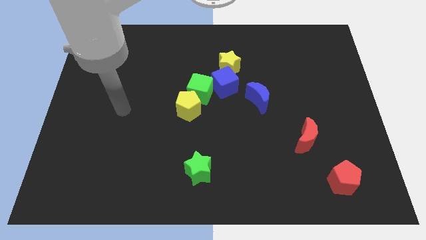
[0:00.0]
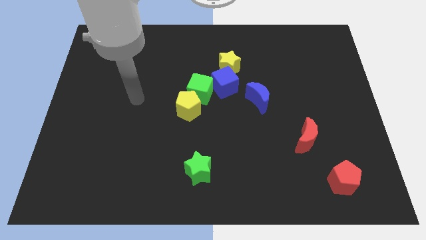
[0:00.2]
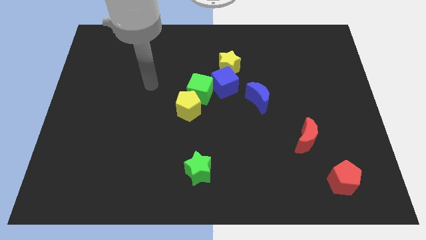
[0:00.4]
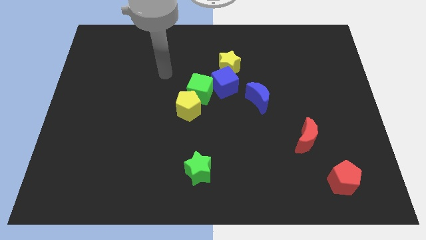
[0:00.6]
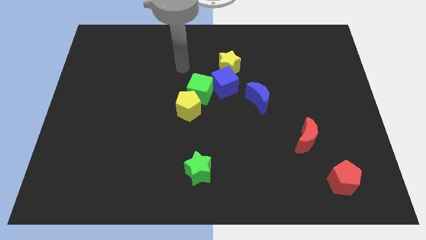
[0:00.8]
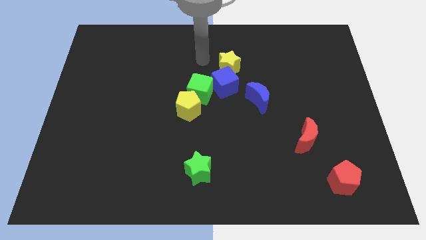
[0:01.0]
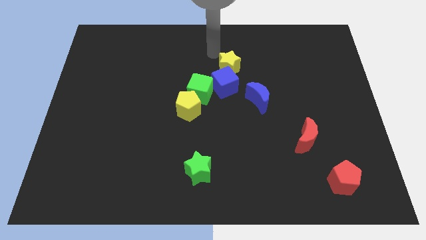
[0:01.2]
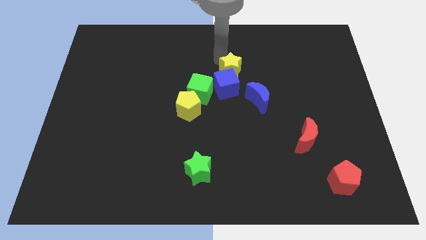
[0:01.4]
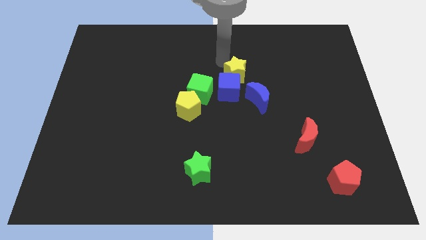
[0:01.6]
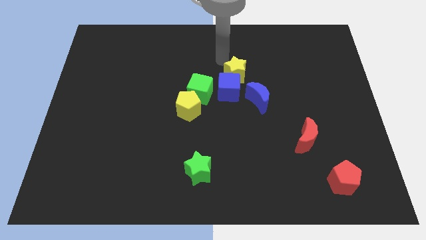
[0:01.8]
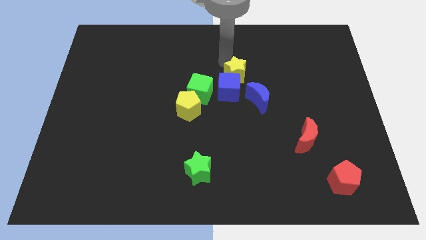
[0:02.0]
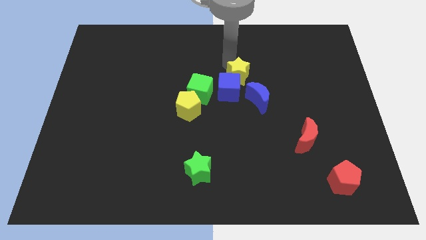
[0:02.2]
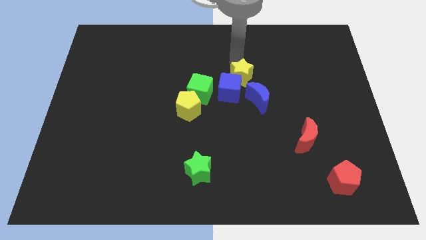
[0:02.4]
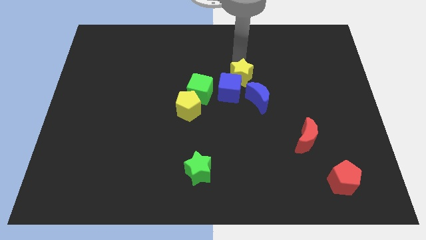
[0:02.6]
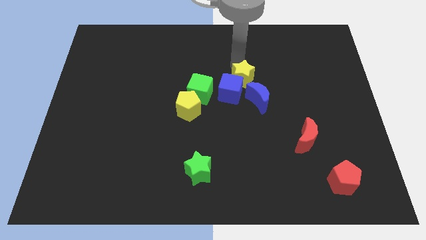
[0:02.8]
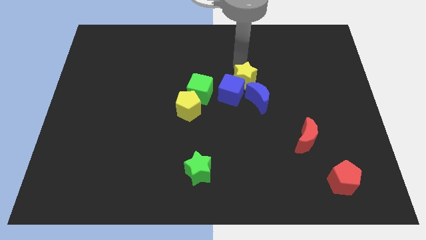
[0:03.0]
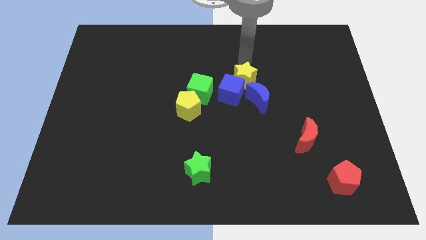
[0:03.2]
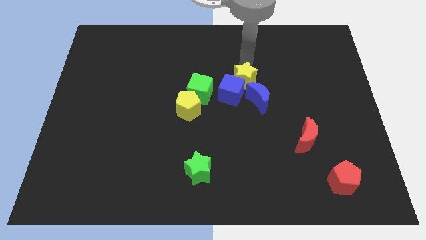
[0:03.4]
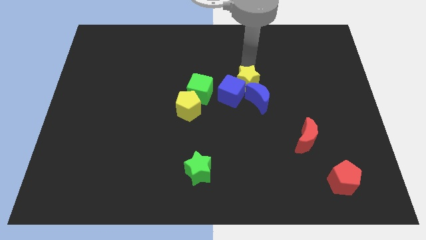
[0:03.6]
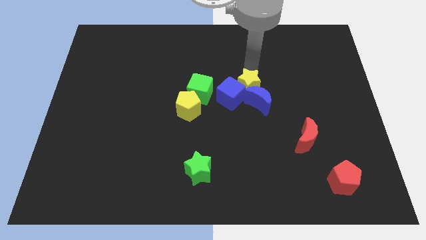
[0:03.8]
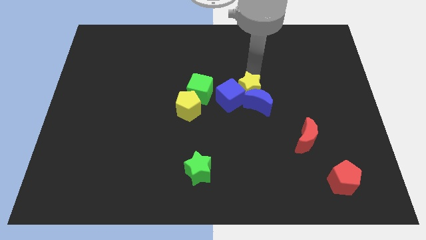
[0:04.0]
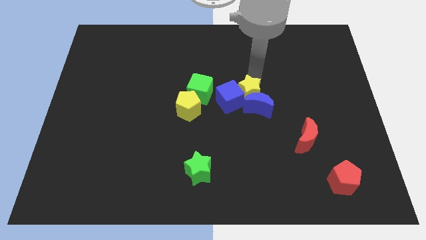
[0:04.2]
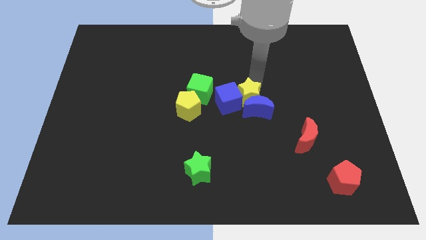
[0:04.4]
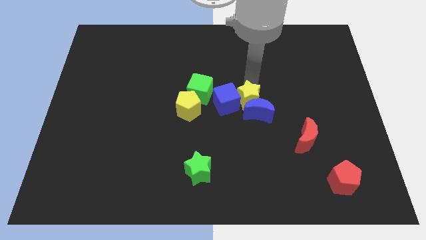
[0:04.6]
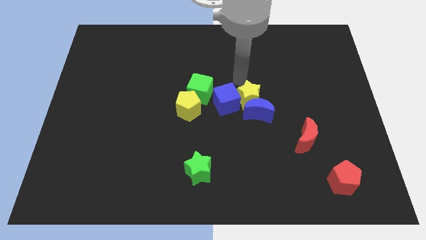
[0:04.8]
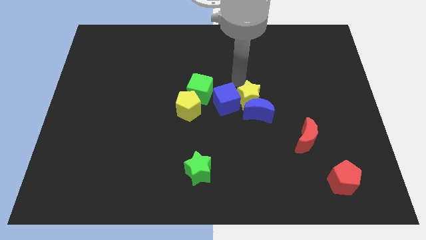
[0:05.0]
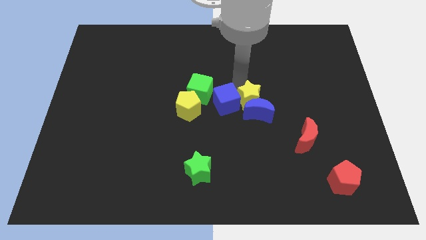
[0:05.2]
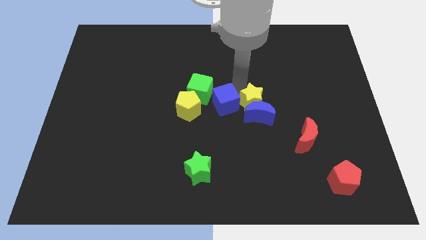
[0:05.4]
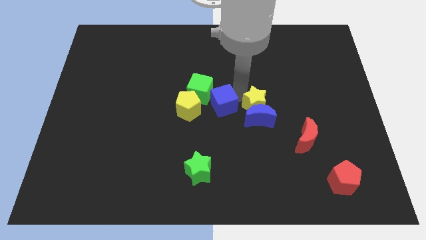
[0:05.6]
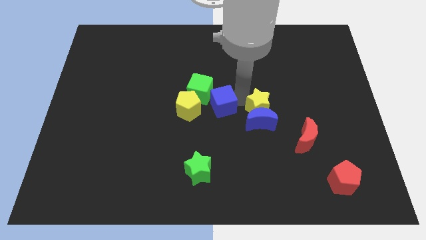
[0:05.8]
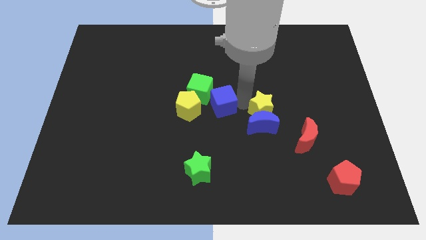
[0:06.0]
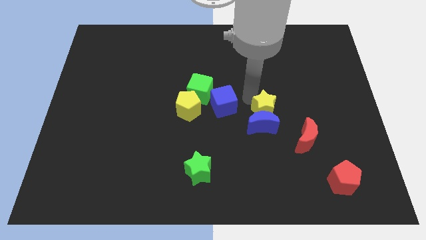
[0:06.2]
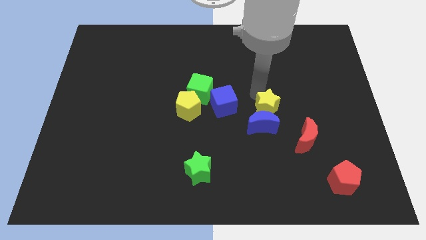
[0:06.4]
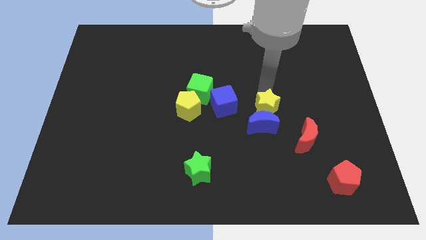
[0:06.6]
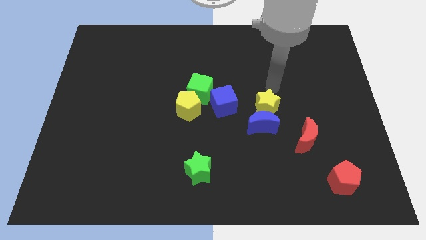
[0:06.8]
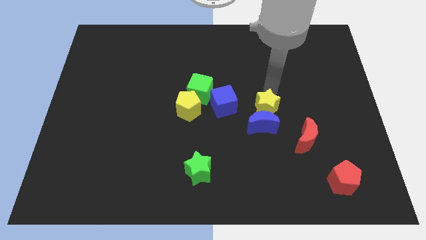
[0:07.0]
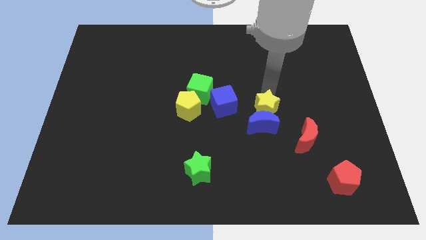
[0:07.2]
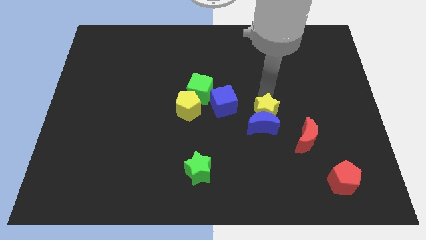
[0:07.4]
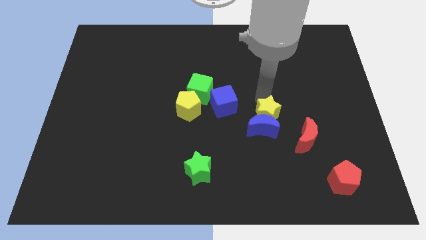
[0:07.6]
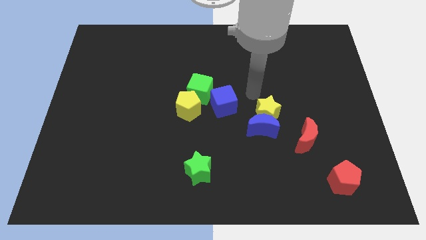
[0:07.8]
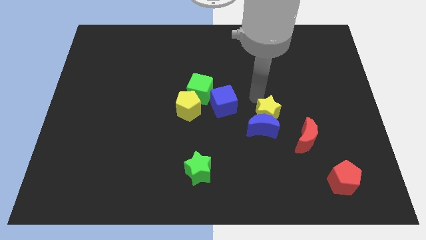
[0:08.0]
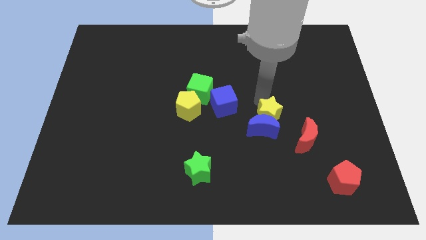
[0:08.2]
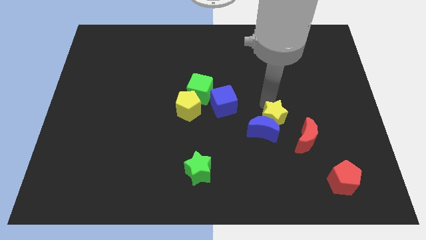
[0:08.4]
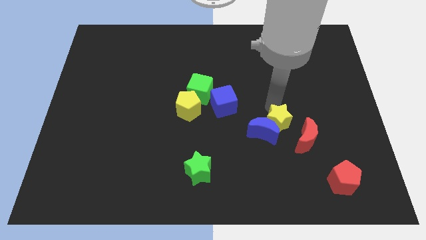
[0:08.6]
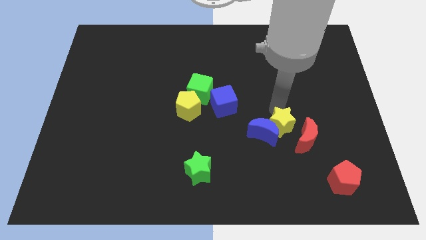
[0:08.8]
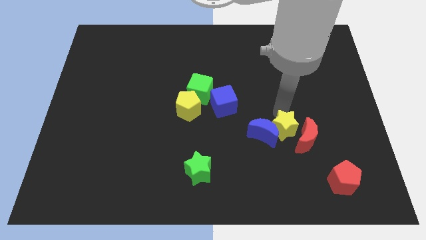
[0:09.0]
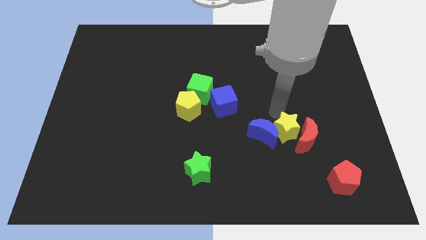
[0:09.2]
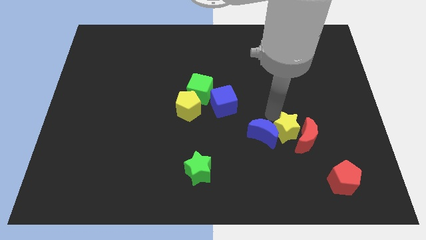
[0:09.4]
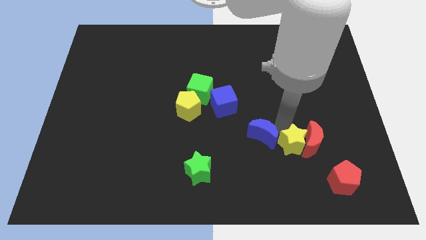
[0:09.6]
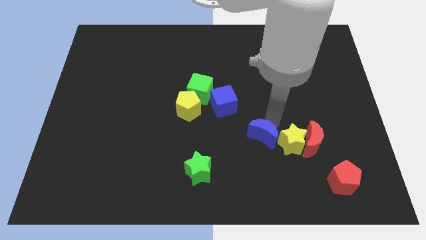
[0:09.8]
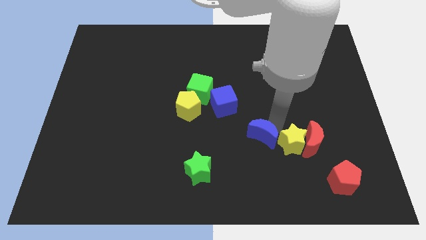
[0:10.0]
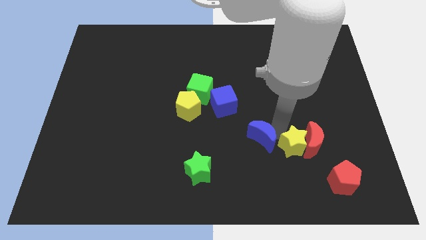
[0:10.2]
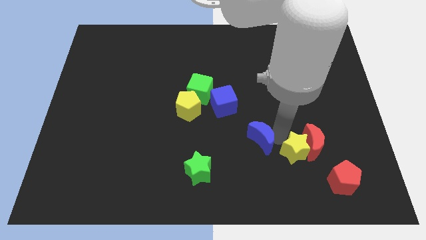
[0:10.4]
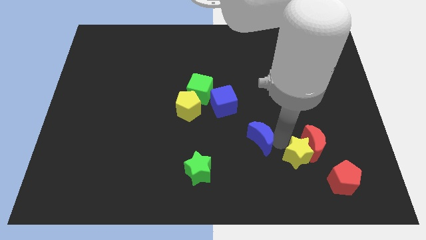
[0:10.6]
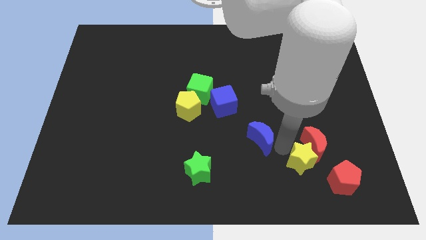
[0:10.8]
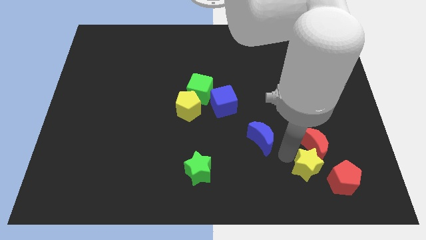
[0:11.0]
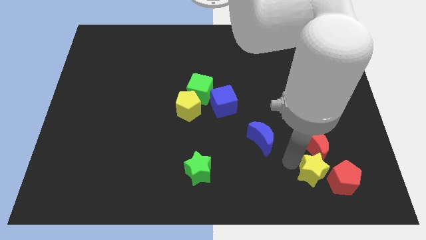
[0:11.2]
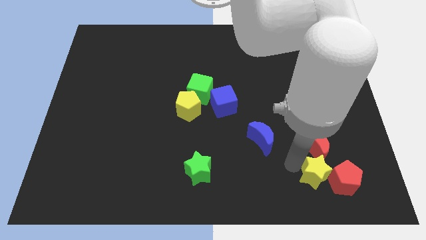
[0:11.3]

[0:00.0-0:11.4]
move the yellow star towards the red pentagon
